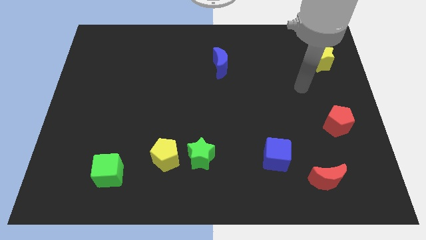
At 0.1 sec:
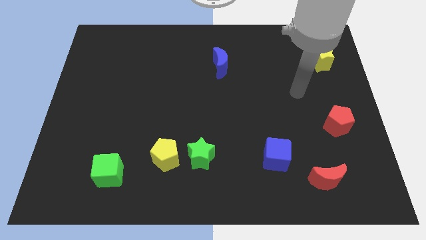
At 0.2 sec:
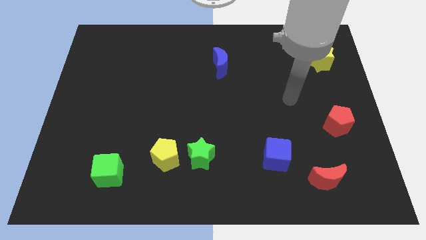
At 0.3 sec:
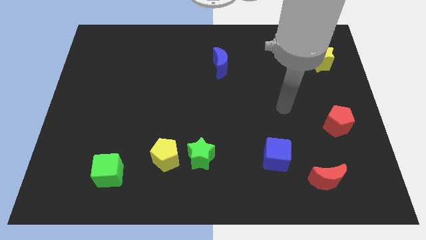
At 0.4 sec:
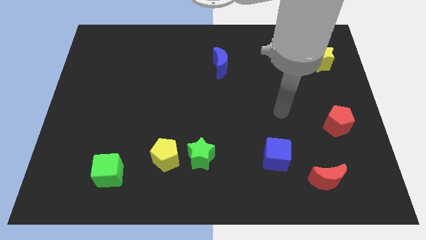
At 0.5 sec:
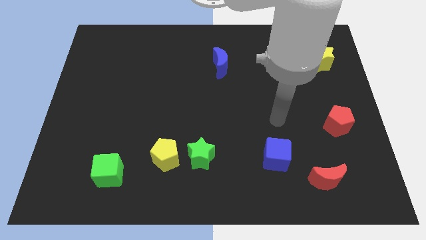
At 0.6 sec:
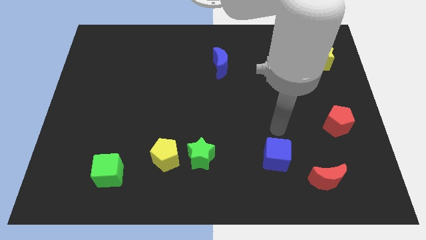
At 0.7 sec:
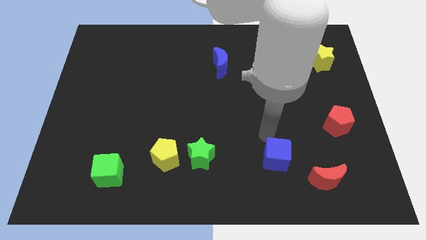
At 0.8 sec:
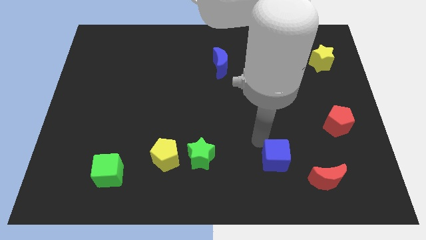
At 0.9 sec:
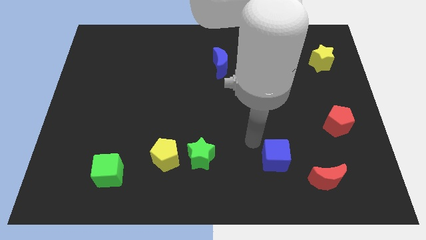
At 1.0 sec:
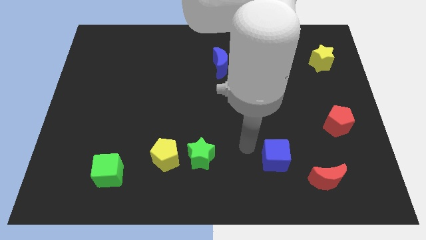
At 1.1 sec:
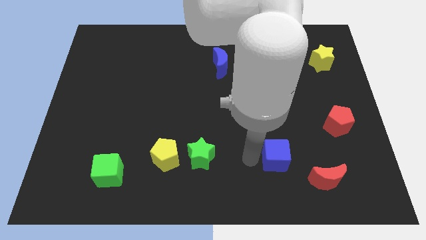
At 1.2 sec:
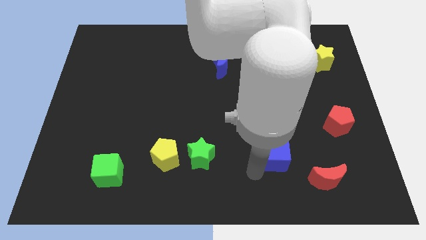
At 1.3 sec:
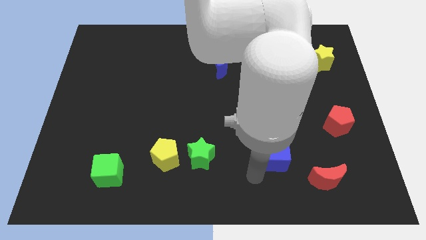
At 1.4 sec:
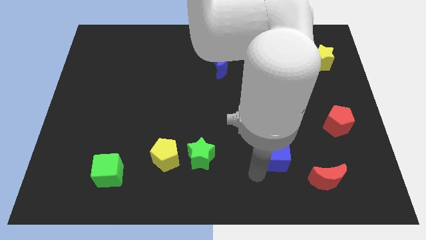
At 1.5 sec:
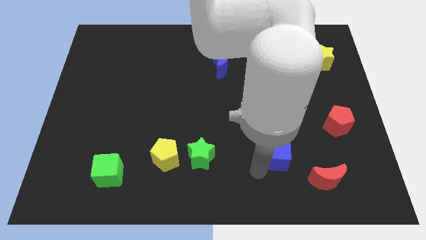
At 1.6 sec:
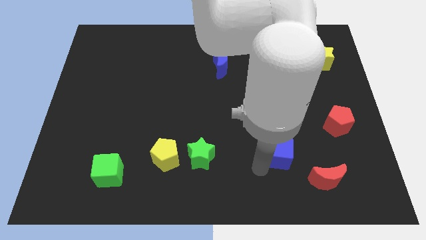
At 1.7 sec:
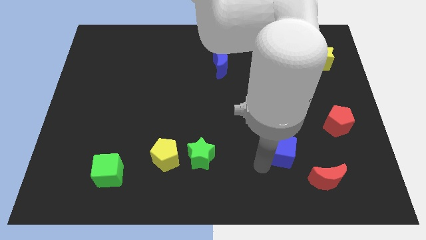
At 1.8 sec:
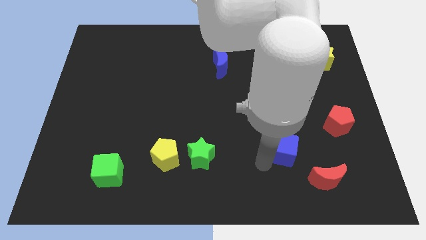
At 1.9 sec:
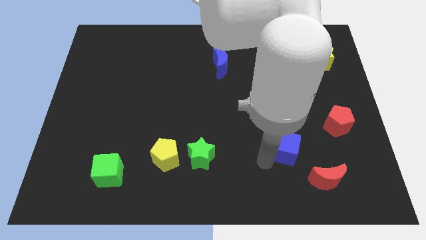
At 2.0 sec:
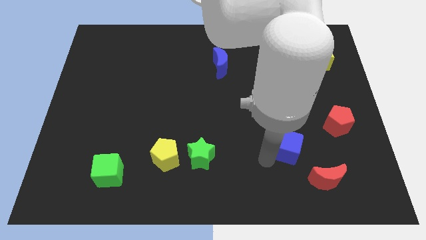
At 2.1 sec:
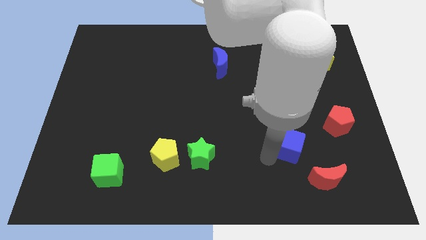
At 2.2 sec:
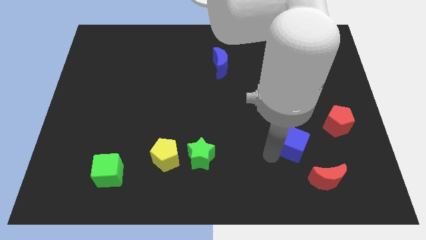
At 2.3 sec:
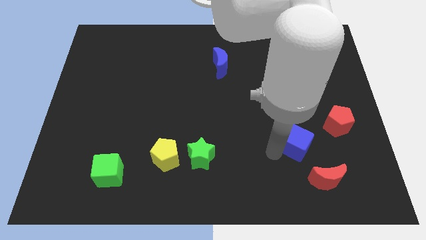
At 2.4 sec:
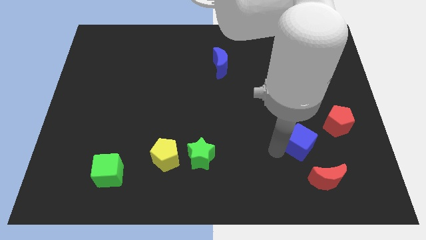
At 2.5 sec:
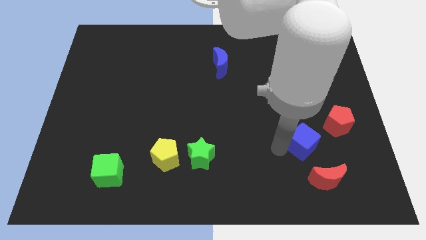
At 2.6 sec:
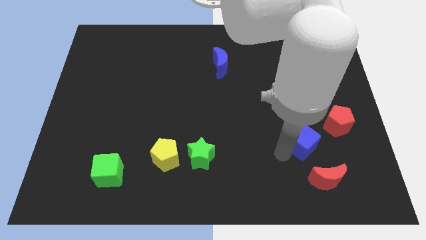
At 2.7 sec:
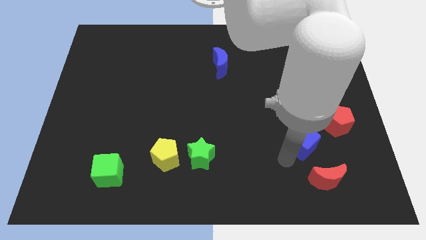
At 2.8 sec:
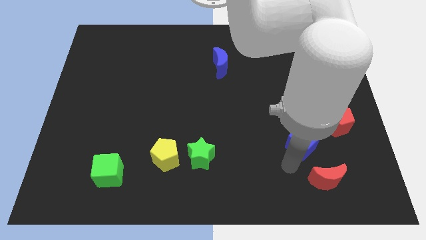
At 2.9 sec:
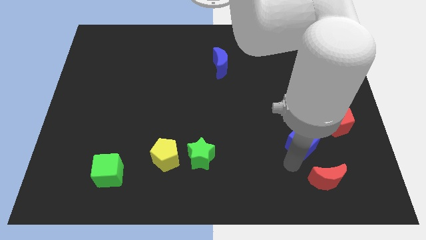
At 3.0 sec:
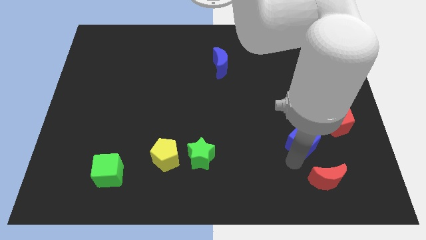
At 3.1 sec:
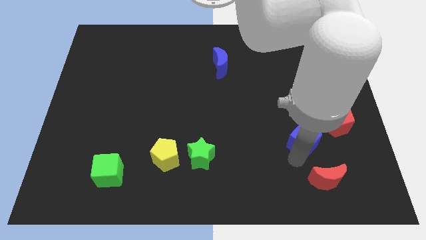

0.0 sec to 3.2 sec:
slide the blue cube a little bit upwards and then right

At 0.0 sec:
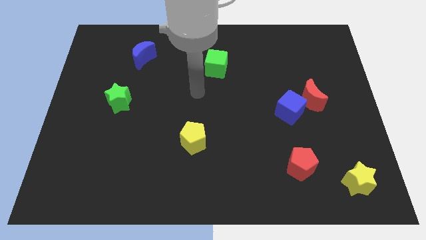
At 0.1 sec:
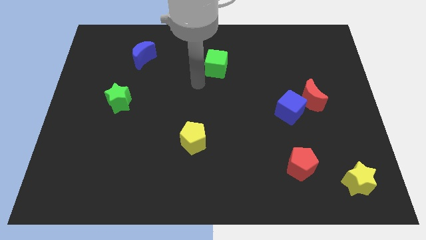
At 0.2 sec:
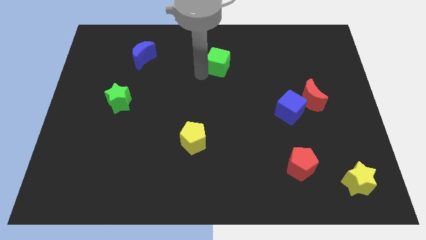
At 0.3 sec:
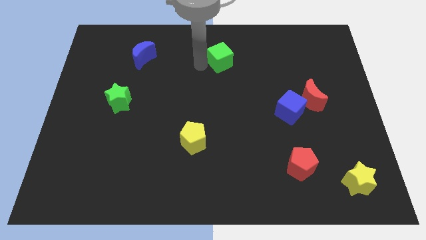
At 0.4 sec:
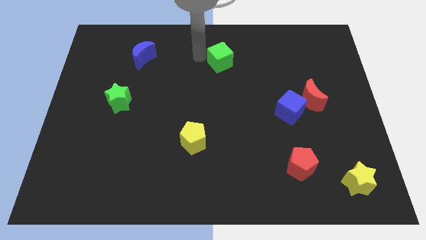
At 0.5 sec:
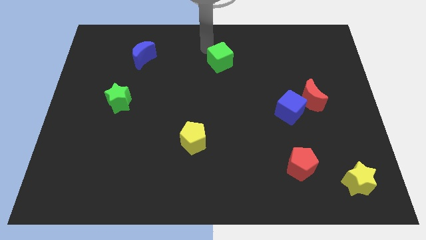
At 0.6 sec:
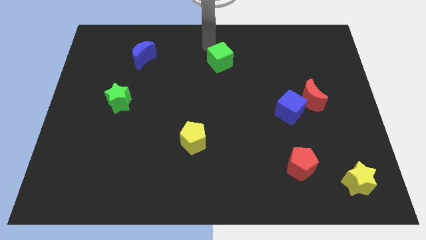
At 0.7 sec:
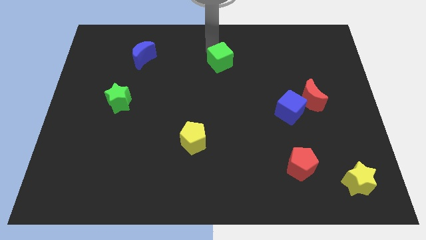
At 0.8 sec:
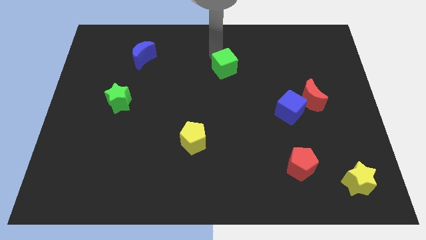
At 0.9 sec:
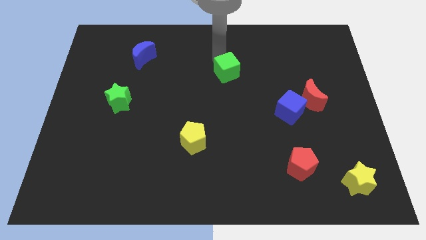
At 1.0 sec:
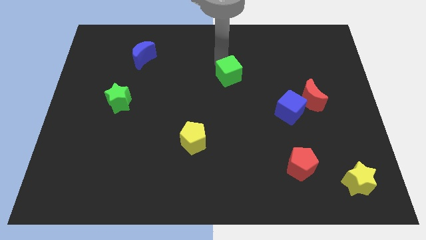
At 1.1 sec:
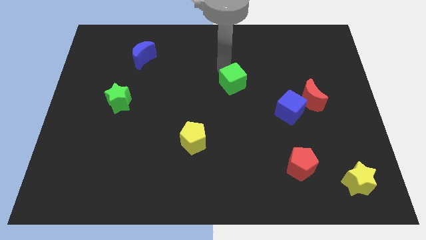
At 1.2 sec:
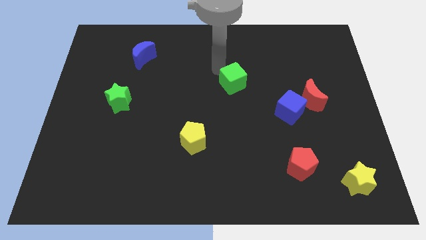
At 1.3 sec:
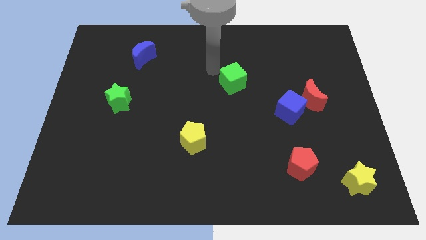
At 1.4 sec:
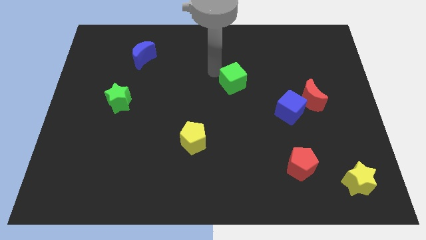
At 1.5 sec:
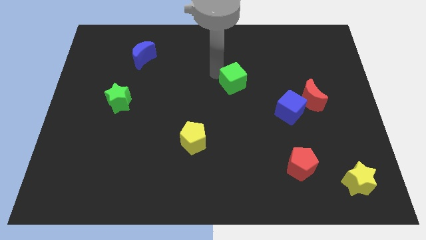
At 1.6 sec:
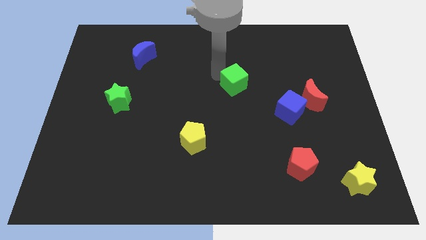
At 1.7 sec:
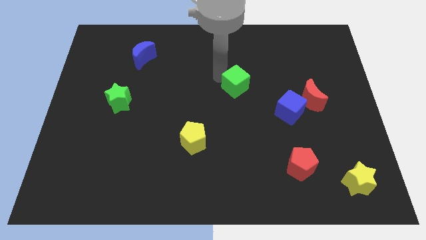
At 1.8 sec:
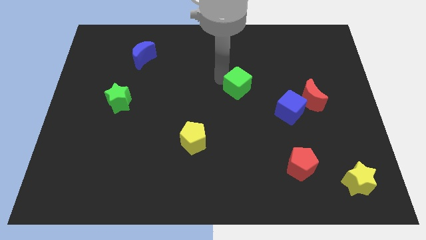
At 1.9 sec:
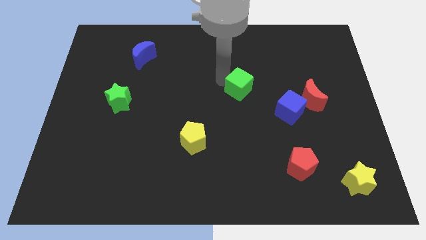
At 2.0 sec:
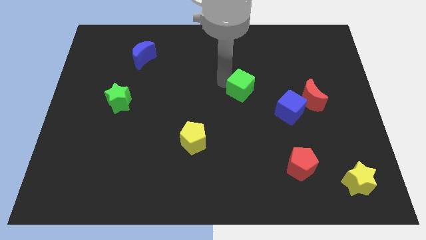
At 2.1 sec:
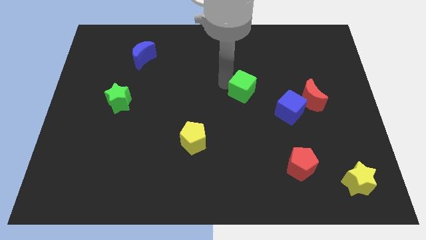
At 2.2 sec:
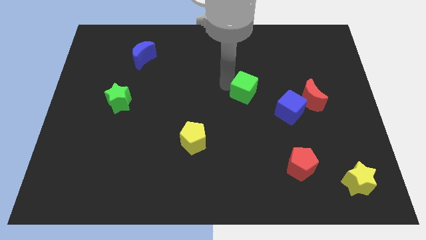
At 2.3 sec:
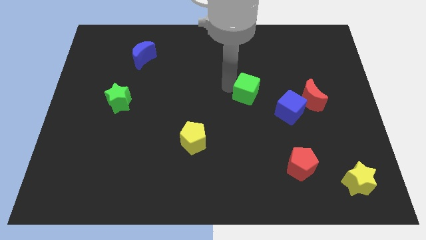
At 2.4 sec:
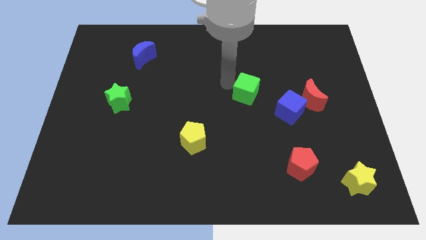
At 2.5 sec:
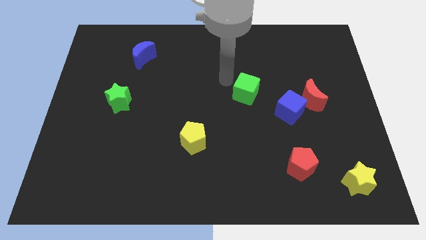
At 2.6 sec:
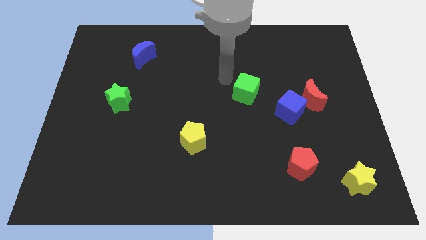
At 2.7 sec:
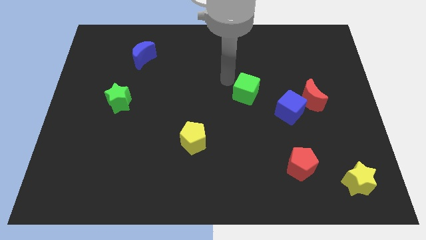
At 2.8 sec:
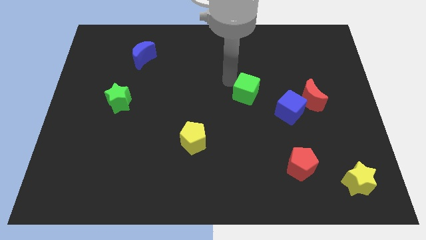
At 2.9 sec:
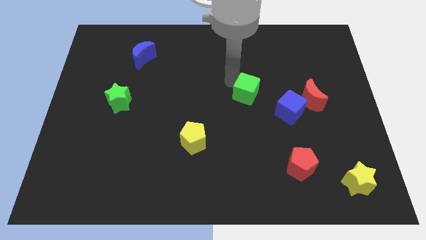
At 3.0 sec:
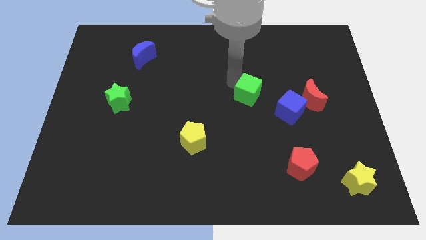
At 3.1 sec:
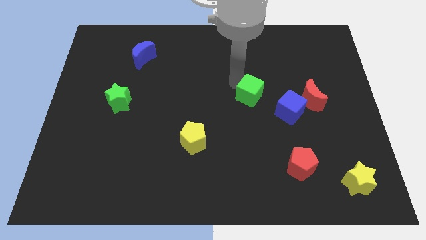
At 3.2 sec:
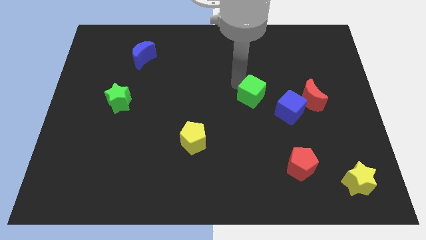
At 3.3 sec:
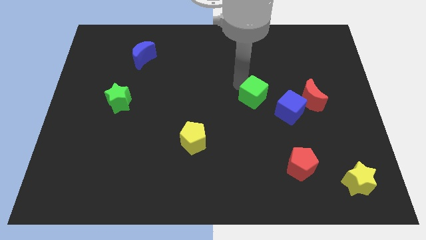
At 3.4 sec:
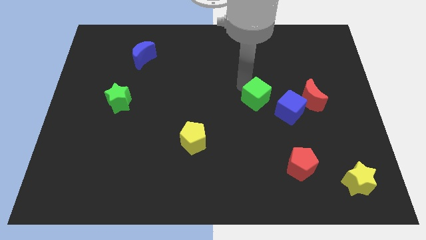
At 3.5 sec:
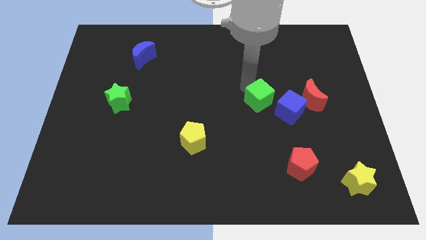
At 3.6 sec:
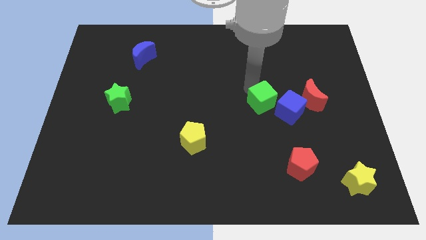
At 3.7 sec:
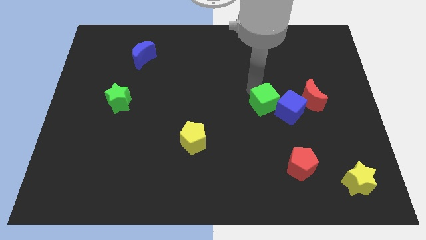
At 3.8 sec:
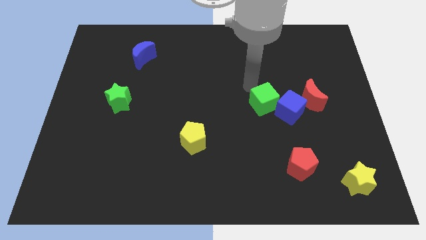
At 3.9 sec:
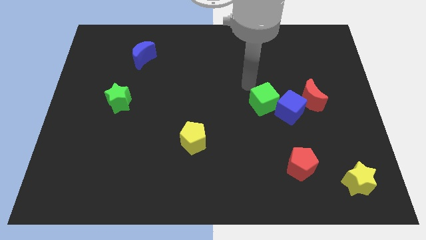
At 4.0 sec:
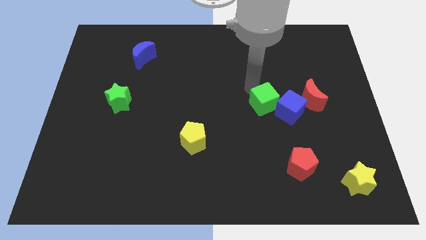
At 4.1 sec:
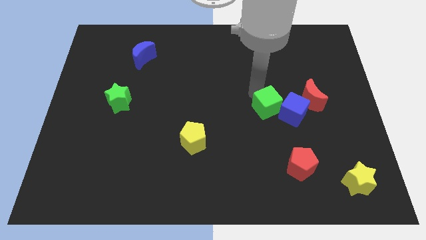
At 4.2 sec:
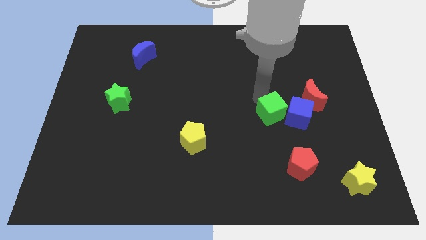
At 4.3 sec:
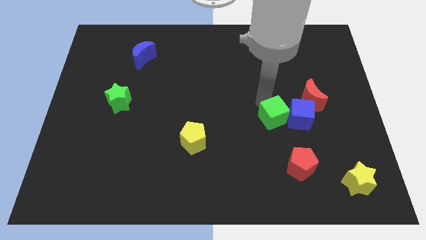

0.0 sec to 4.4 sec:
move the green cube down and to the right

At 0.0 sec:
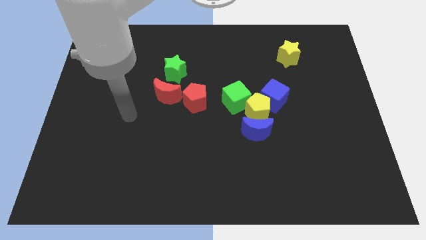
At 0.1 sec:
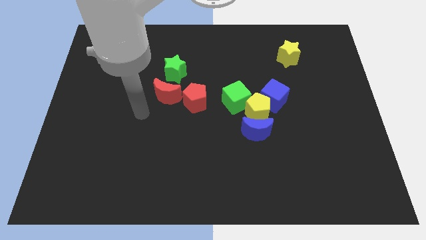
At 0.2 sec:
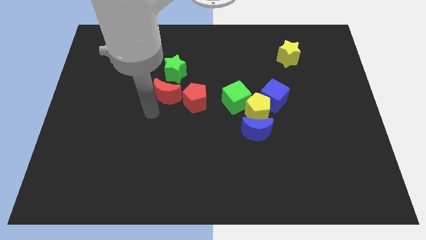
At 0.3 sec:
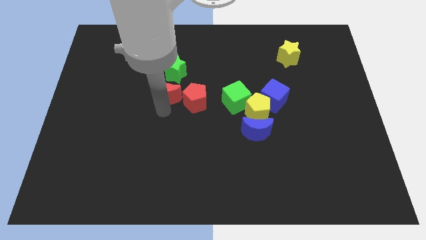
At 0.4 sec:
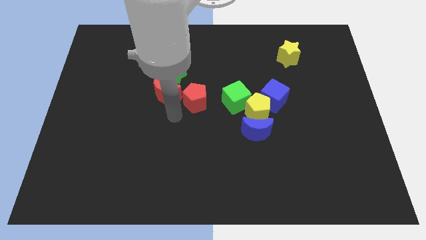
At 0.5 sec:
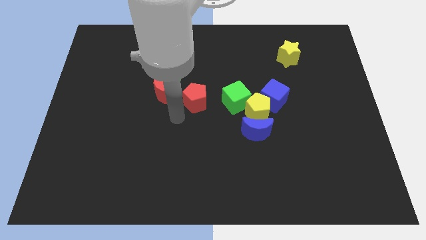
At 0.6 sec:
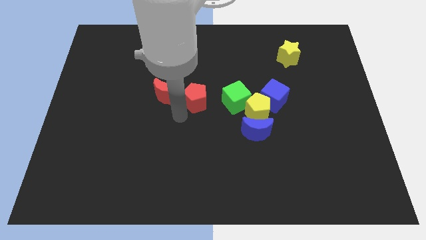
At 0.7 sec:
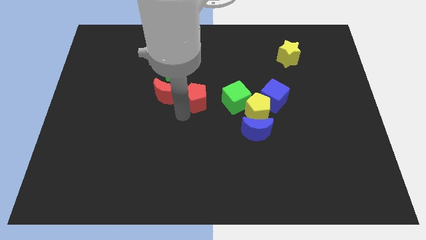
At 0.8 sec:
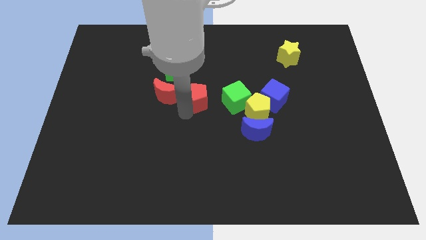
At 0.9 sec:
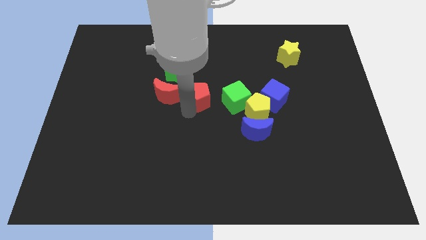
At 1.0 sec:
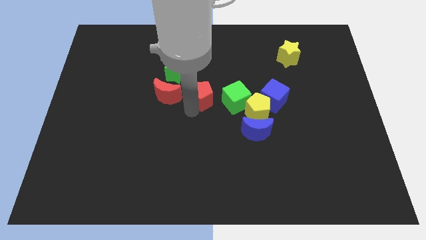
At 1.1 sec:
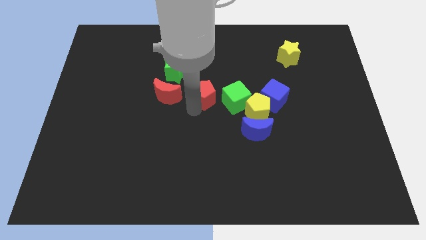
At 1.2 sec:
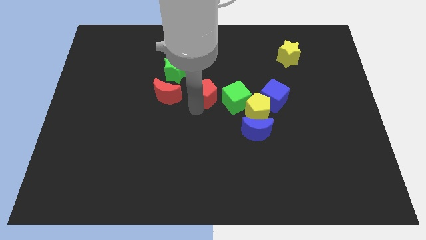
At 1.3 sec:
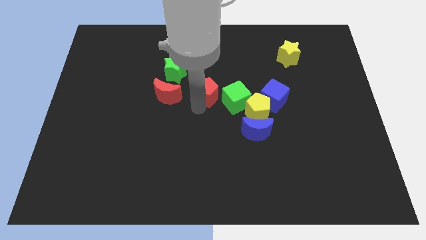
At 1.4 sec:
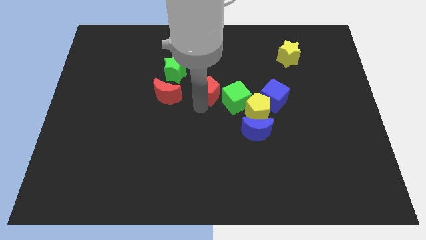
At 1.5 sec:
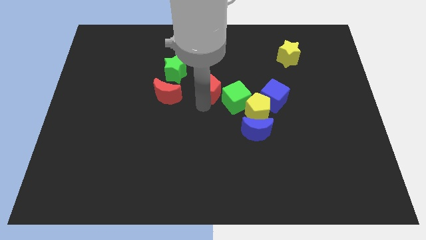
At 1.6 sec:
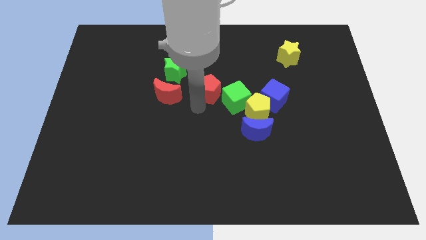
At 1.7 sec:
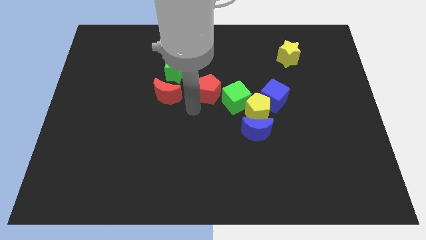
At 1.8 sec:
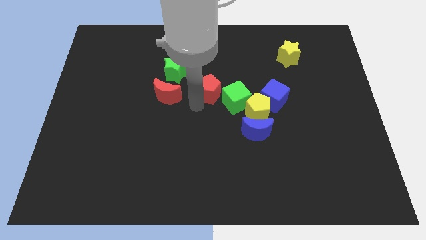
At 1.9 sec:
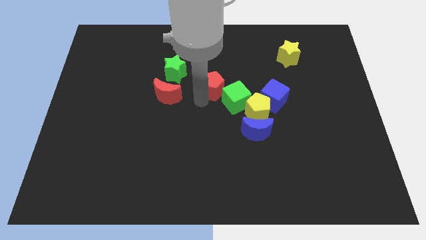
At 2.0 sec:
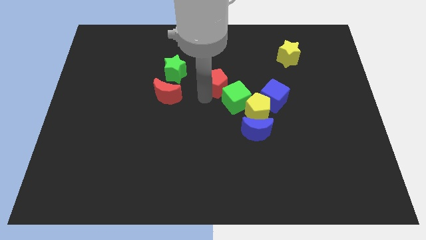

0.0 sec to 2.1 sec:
move the red pentagon a bit upwards and to the right
